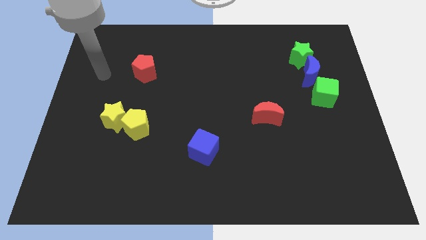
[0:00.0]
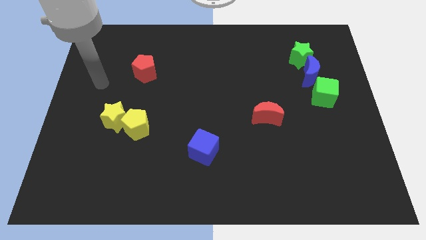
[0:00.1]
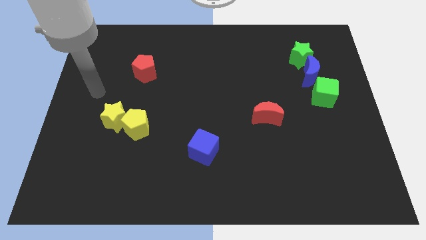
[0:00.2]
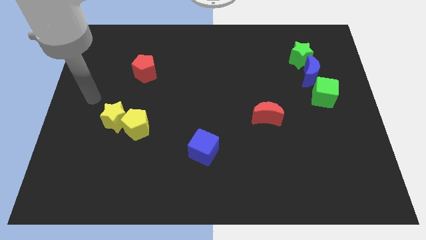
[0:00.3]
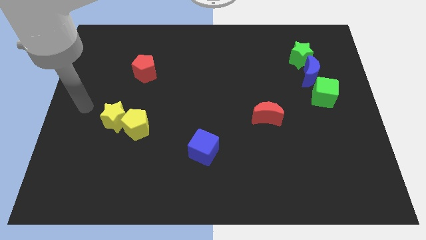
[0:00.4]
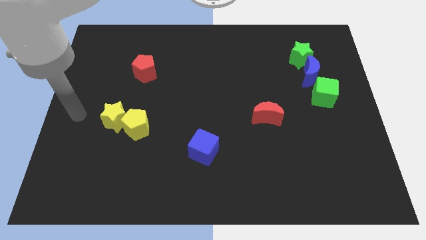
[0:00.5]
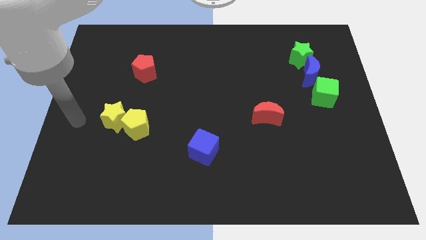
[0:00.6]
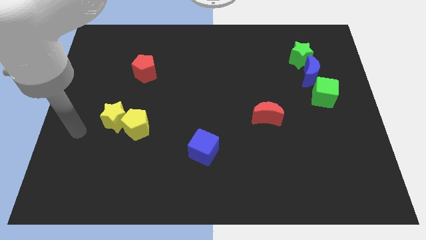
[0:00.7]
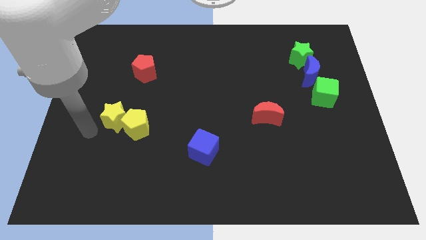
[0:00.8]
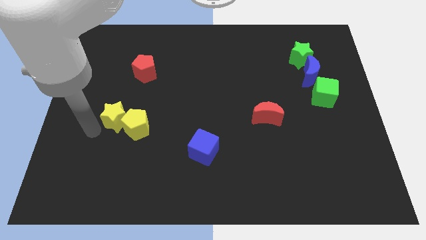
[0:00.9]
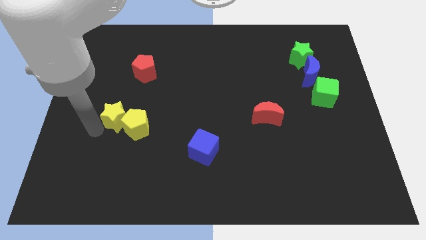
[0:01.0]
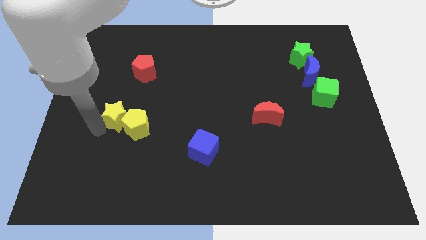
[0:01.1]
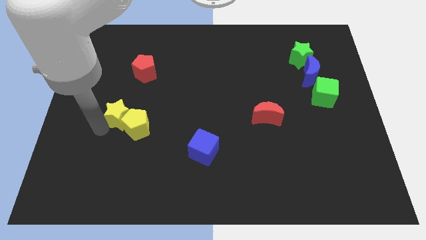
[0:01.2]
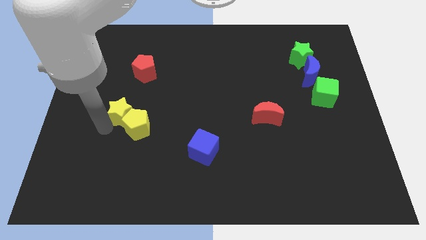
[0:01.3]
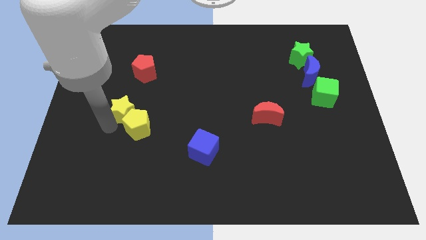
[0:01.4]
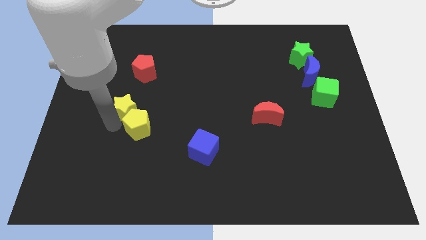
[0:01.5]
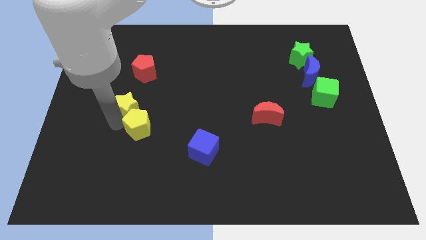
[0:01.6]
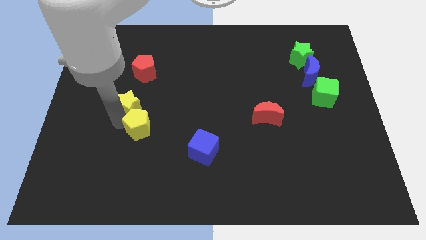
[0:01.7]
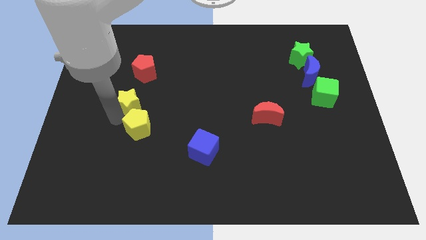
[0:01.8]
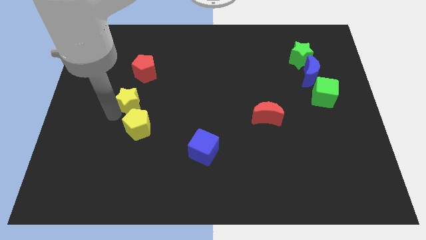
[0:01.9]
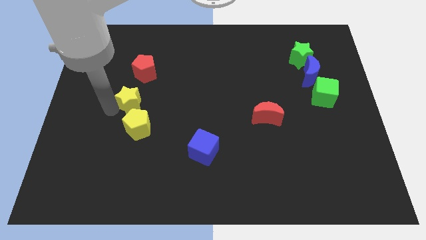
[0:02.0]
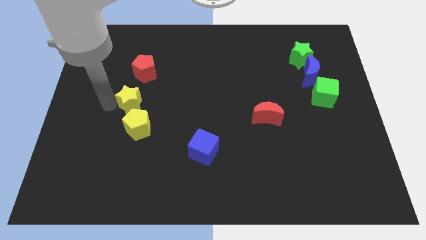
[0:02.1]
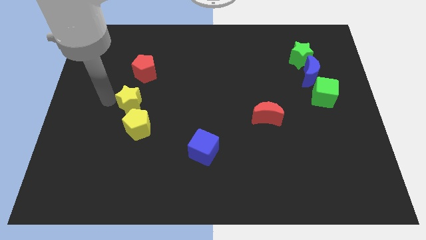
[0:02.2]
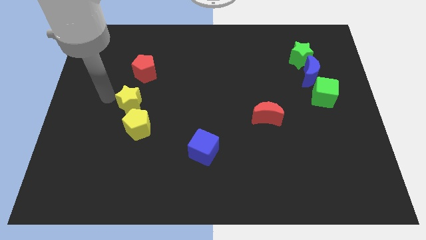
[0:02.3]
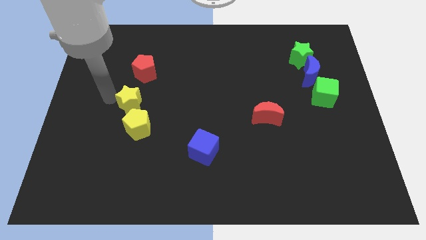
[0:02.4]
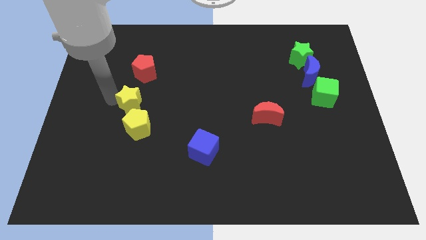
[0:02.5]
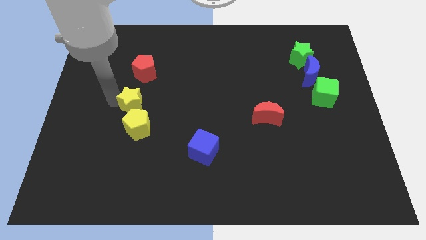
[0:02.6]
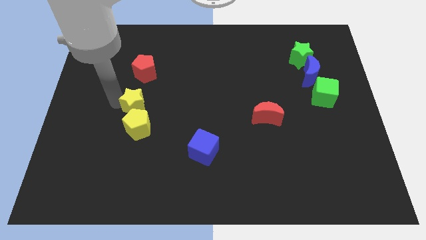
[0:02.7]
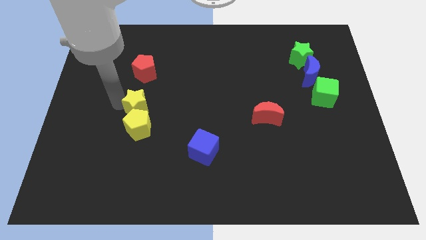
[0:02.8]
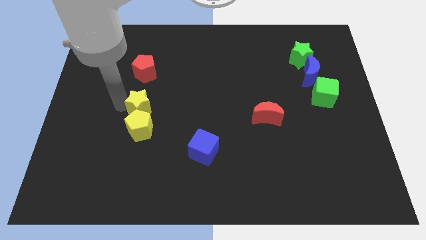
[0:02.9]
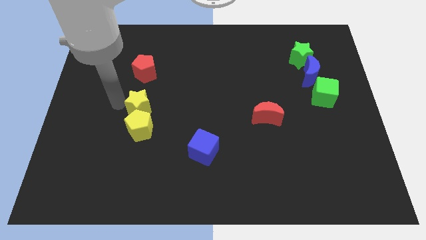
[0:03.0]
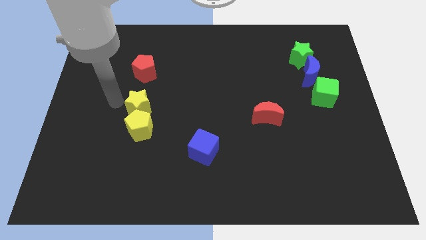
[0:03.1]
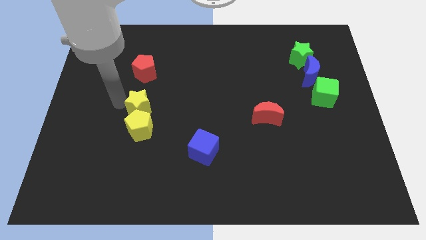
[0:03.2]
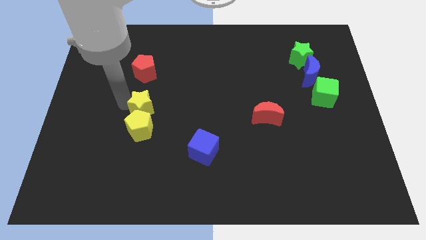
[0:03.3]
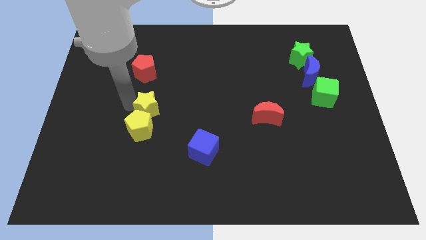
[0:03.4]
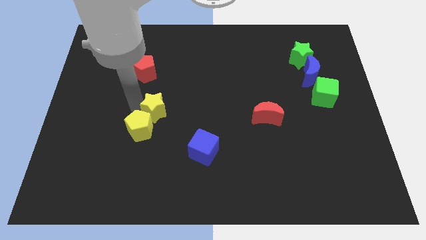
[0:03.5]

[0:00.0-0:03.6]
push the yellow star right a little

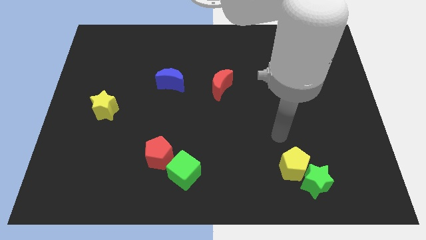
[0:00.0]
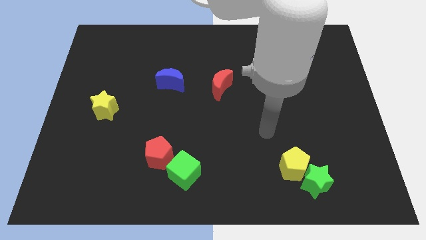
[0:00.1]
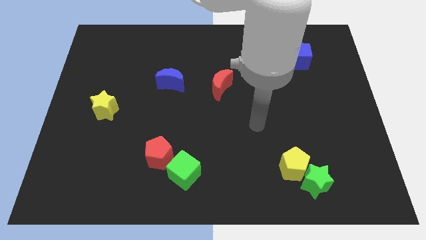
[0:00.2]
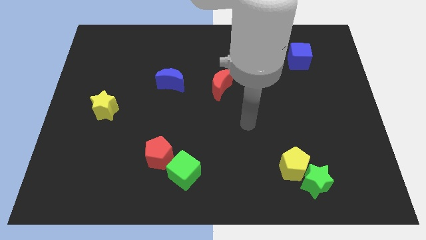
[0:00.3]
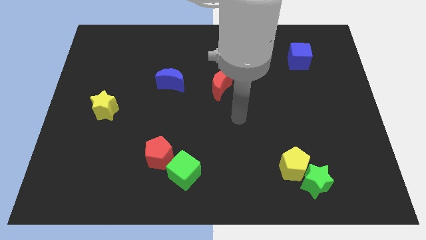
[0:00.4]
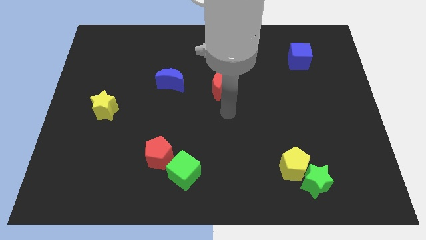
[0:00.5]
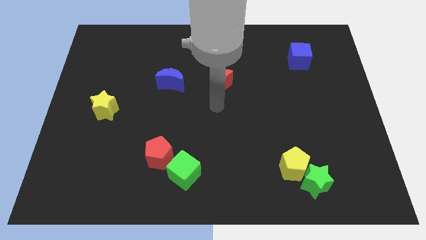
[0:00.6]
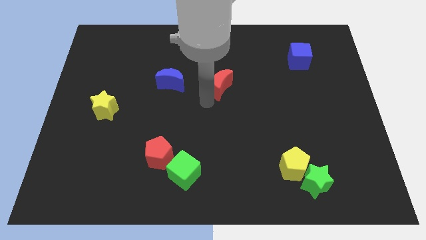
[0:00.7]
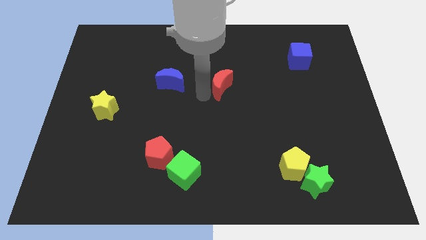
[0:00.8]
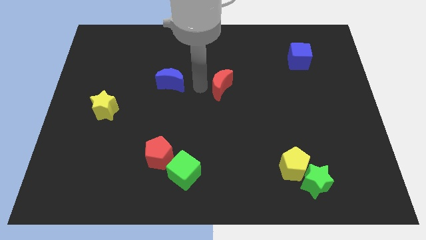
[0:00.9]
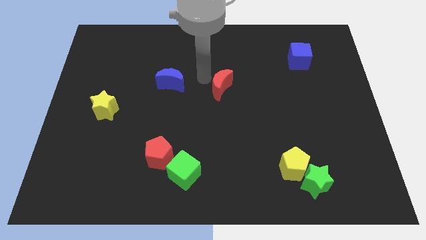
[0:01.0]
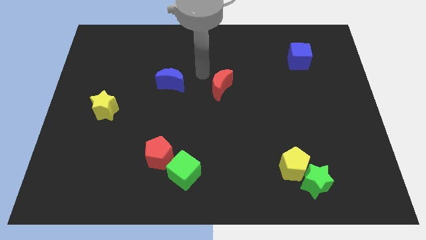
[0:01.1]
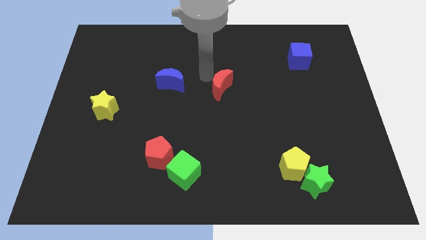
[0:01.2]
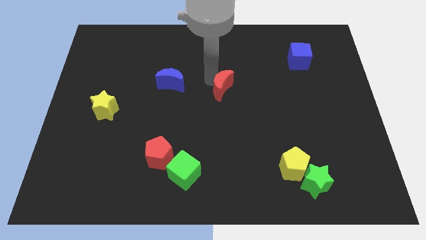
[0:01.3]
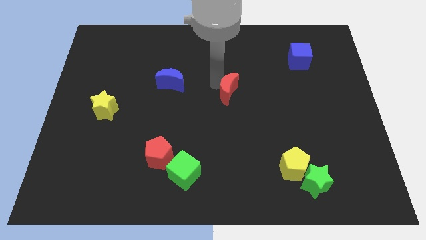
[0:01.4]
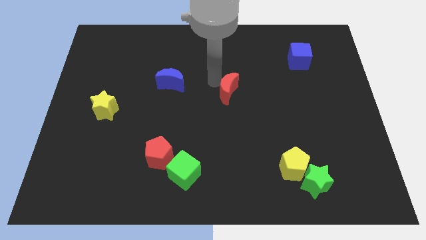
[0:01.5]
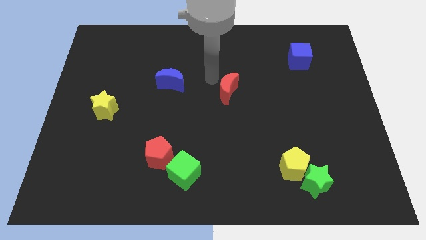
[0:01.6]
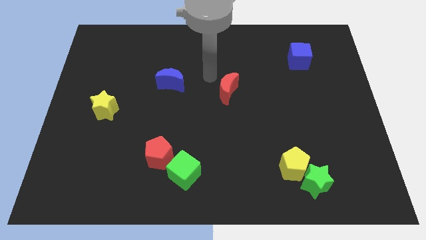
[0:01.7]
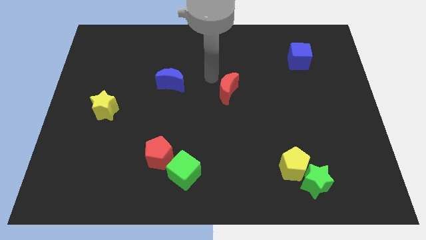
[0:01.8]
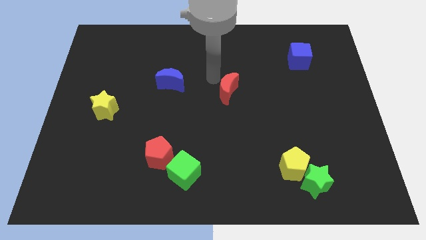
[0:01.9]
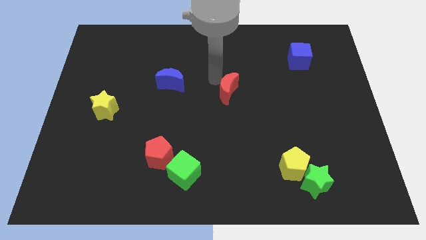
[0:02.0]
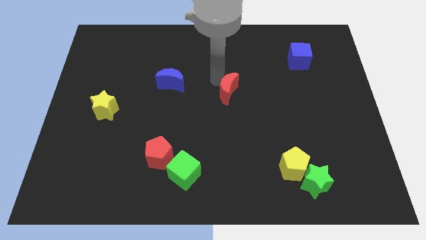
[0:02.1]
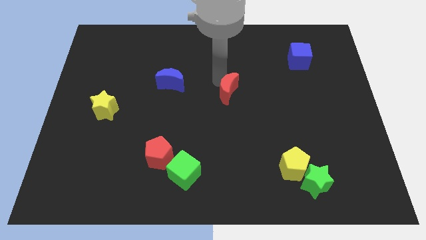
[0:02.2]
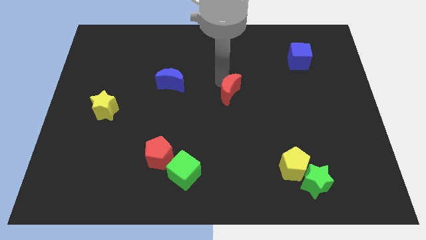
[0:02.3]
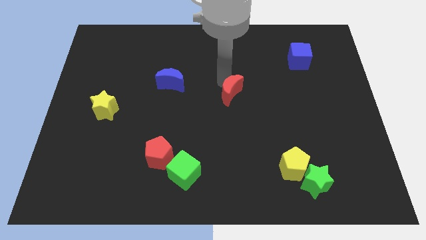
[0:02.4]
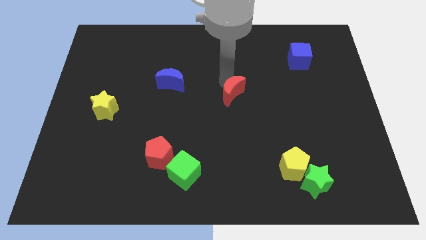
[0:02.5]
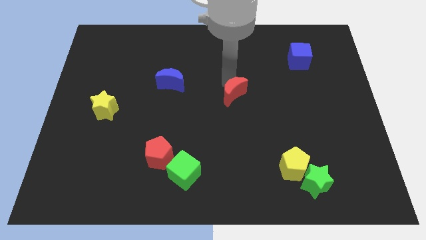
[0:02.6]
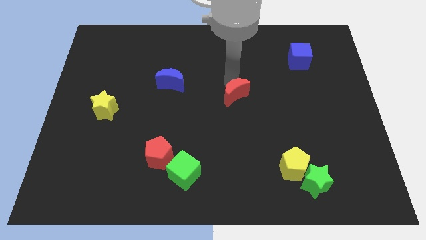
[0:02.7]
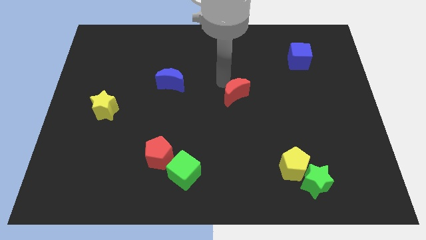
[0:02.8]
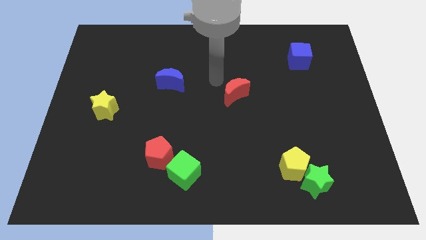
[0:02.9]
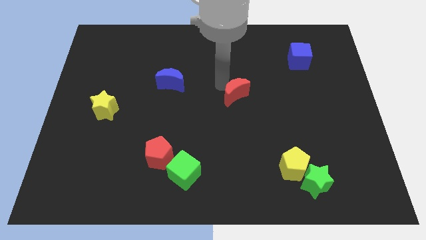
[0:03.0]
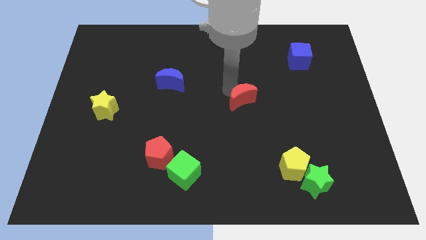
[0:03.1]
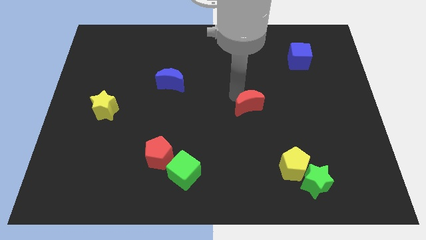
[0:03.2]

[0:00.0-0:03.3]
push the red moon somewhat downwards and right diagonally

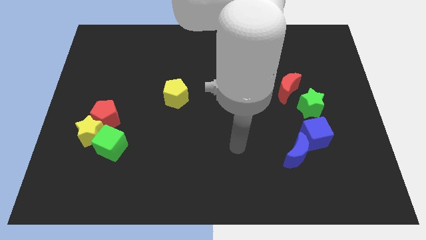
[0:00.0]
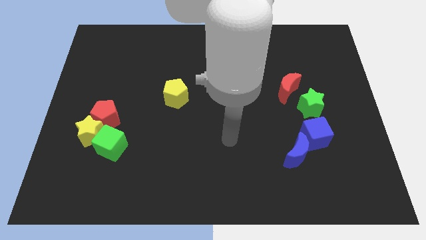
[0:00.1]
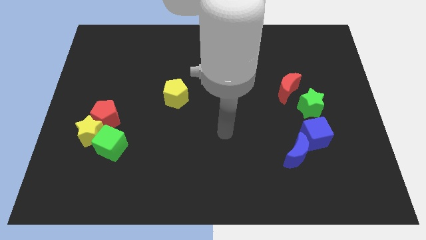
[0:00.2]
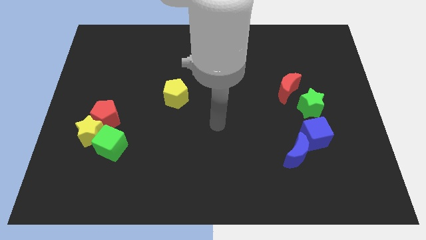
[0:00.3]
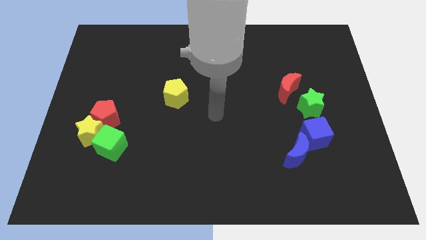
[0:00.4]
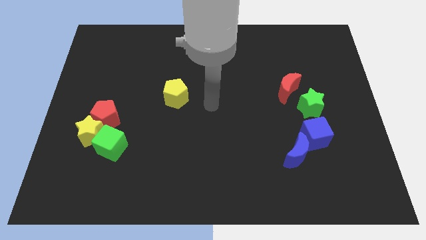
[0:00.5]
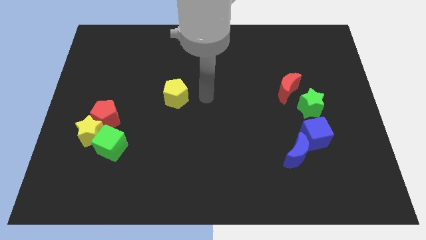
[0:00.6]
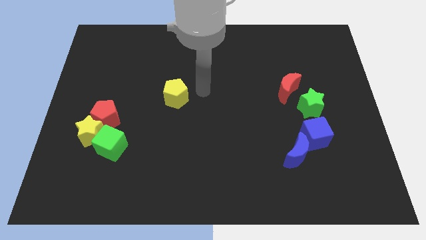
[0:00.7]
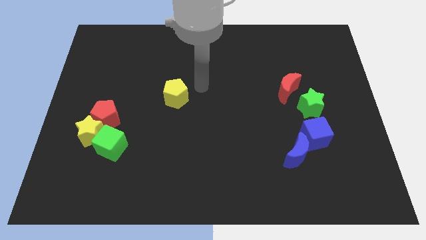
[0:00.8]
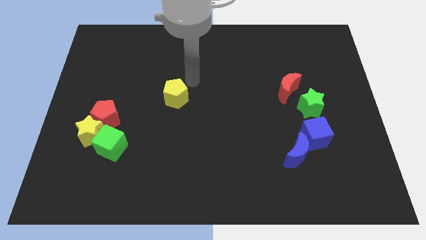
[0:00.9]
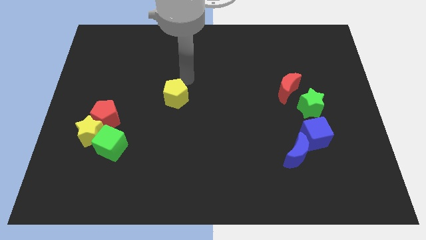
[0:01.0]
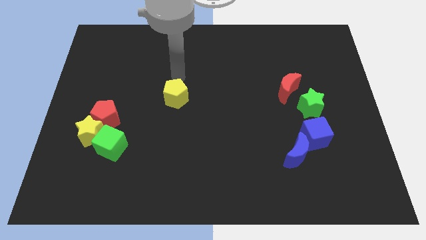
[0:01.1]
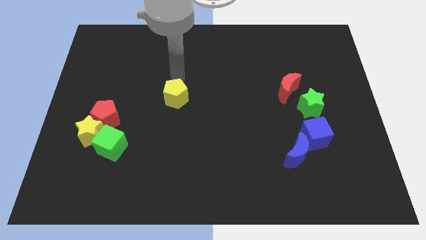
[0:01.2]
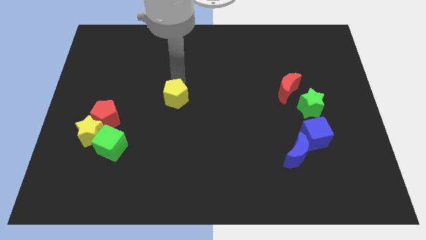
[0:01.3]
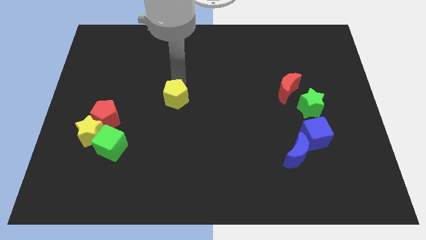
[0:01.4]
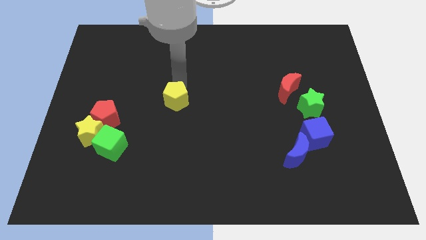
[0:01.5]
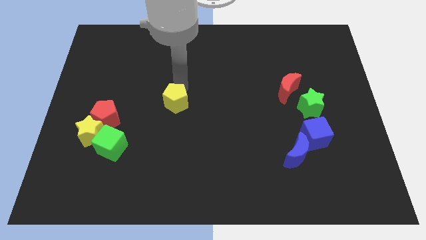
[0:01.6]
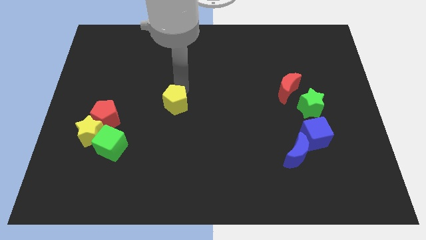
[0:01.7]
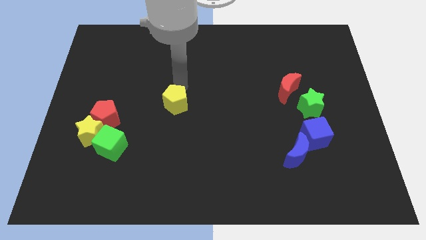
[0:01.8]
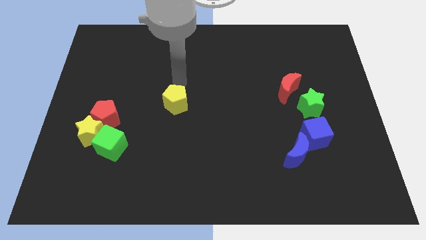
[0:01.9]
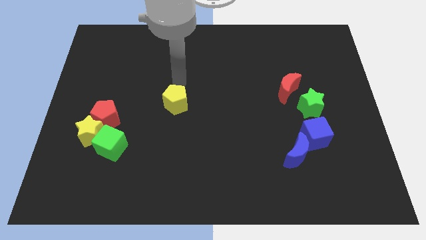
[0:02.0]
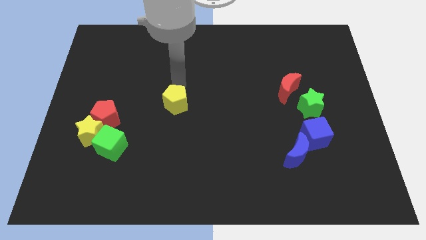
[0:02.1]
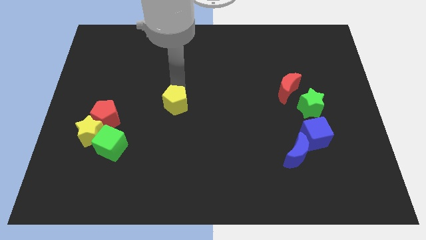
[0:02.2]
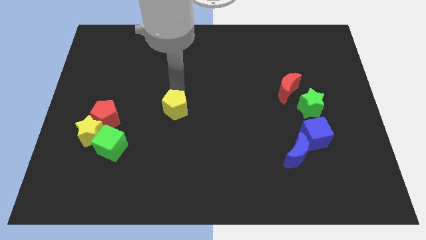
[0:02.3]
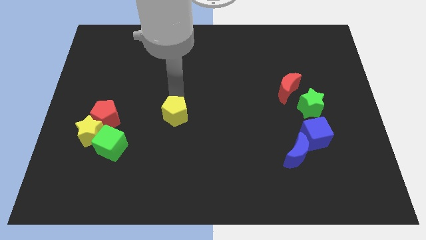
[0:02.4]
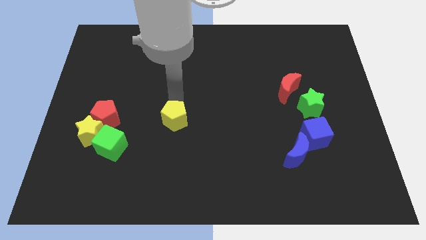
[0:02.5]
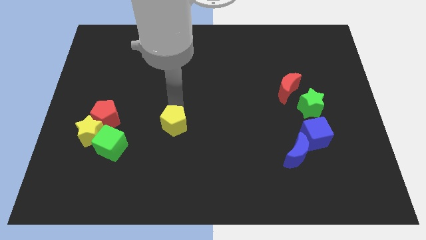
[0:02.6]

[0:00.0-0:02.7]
slightly move the yellow pentagon downwards
